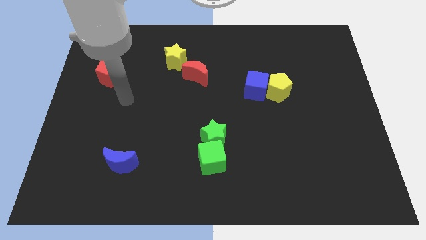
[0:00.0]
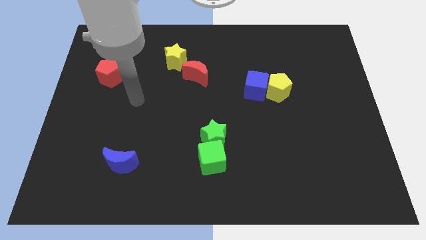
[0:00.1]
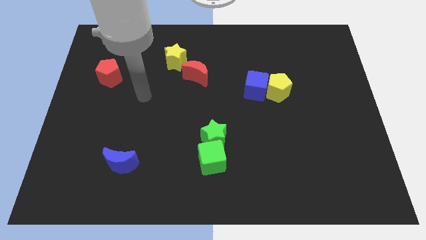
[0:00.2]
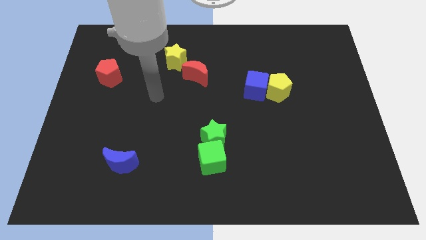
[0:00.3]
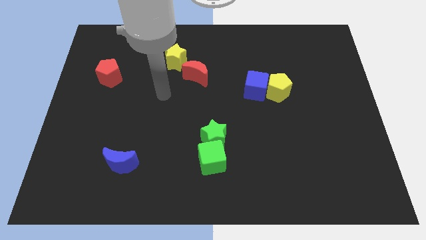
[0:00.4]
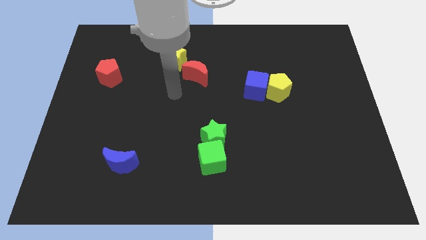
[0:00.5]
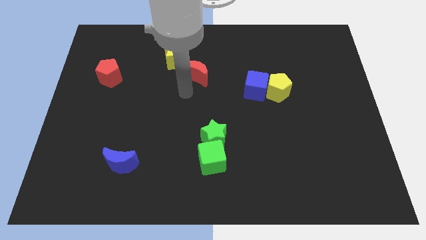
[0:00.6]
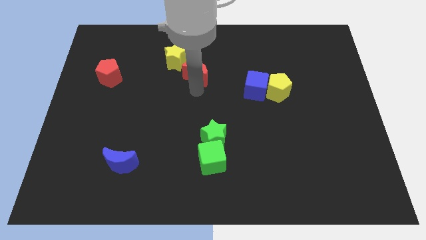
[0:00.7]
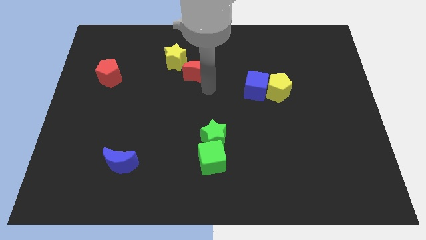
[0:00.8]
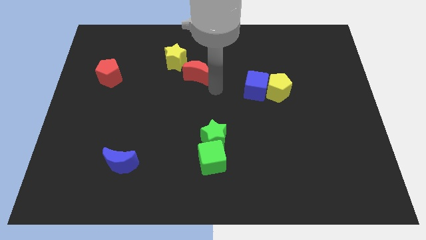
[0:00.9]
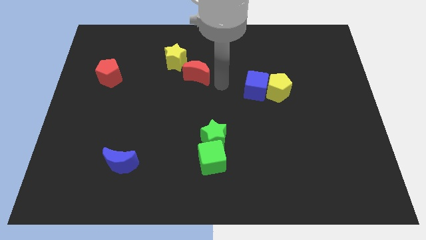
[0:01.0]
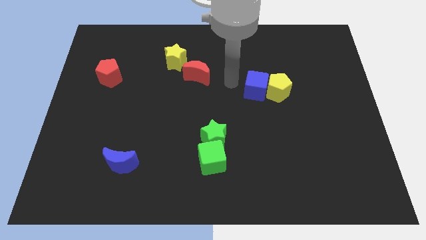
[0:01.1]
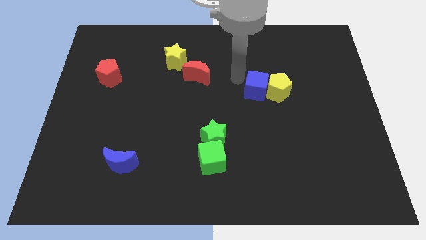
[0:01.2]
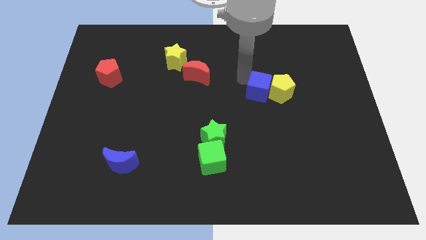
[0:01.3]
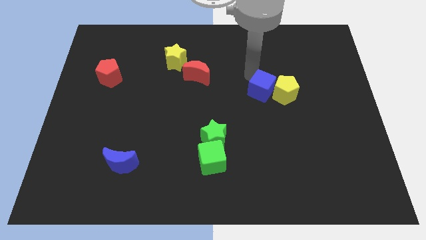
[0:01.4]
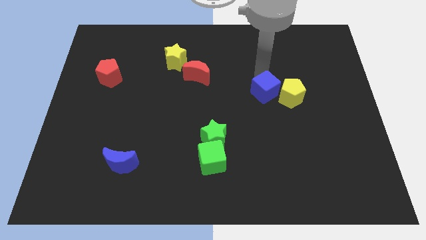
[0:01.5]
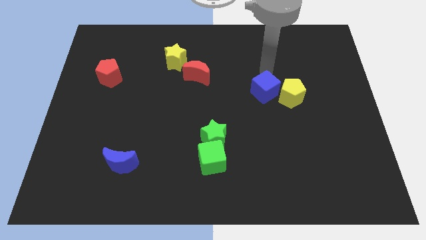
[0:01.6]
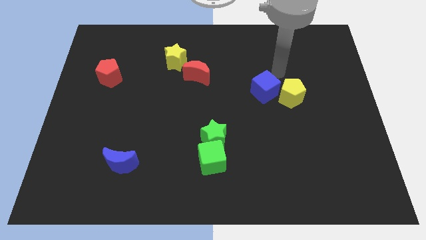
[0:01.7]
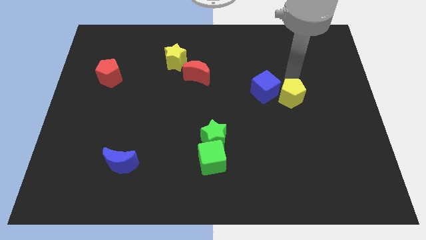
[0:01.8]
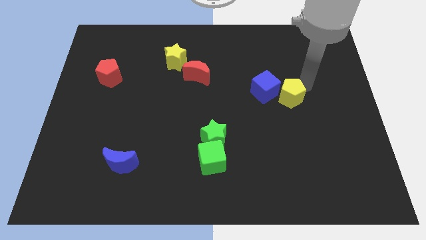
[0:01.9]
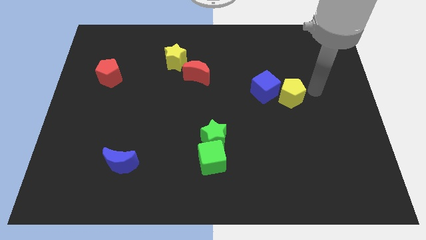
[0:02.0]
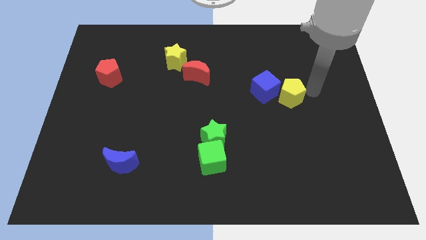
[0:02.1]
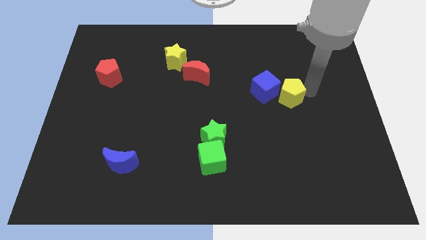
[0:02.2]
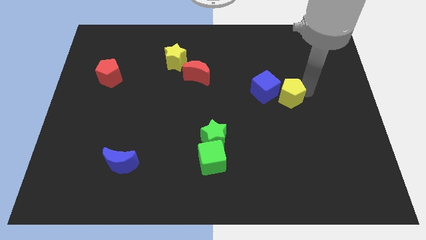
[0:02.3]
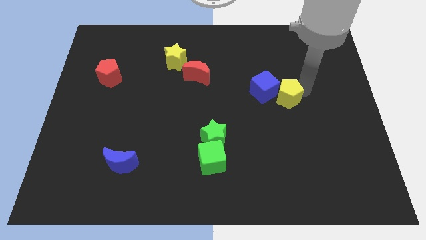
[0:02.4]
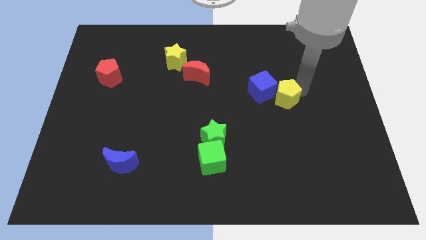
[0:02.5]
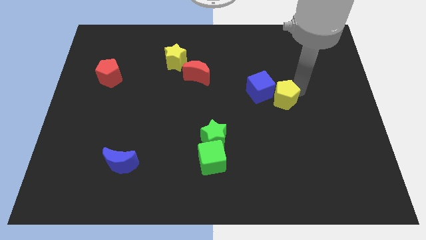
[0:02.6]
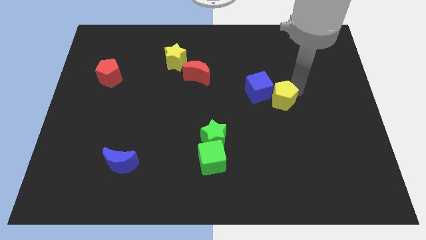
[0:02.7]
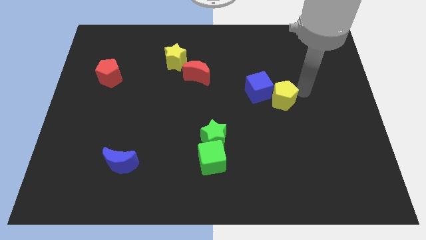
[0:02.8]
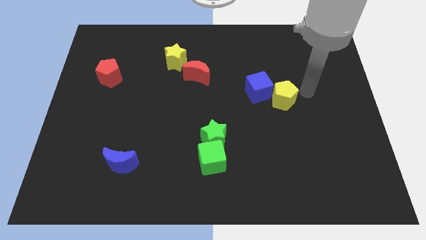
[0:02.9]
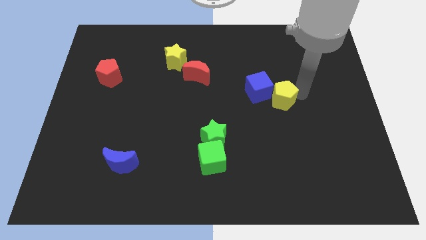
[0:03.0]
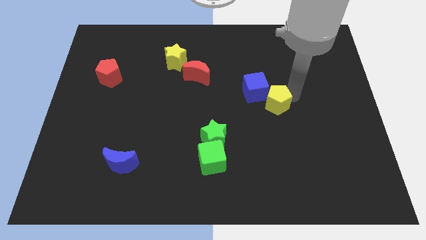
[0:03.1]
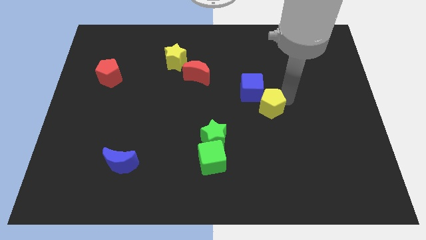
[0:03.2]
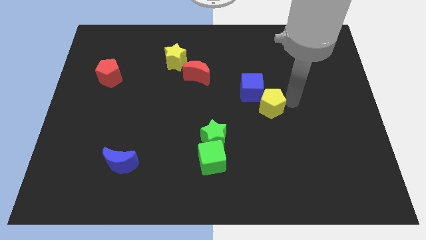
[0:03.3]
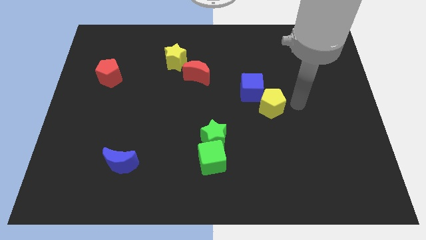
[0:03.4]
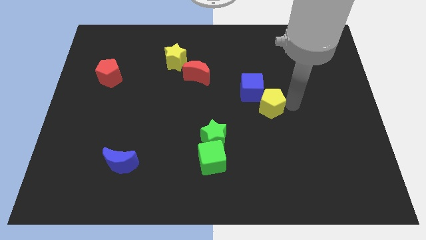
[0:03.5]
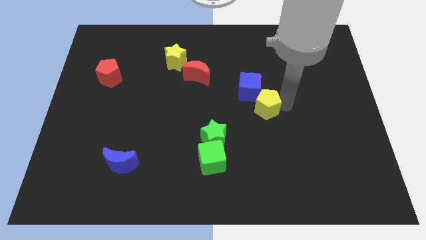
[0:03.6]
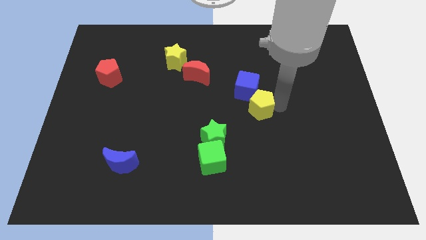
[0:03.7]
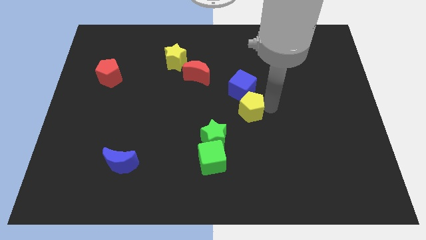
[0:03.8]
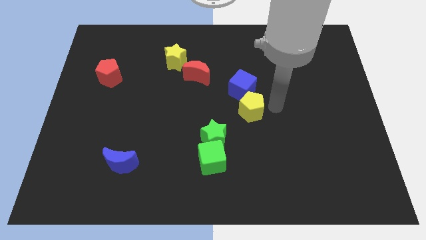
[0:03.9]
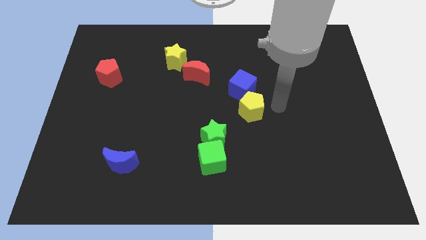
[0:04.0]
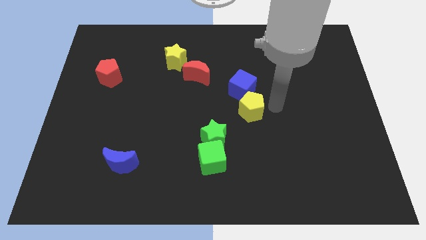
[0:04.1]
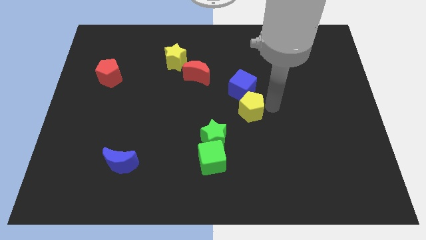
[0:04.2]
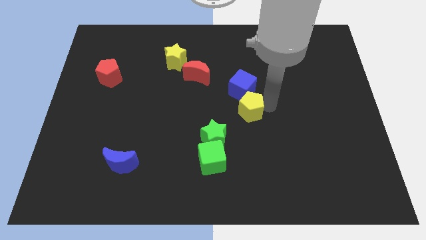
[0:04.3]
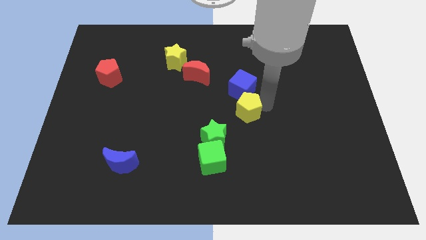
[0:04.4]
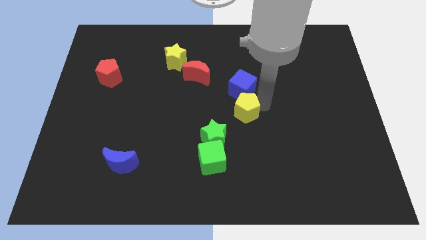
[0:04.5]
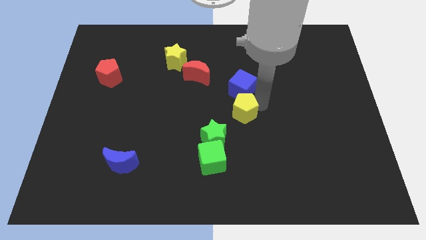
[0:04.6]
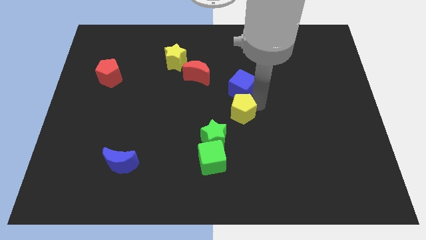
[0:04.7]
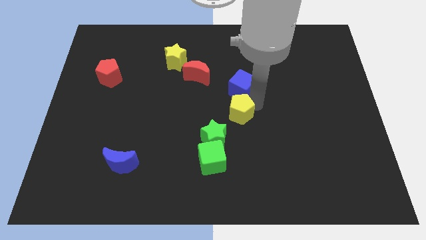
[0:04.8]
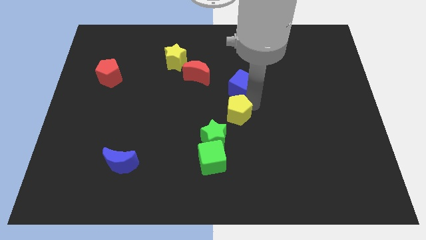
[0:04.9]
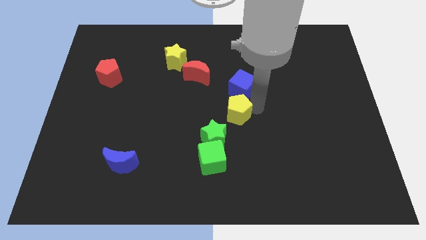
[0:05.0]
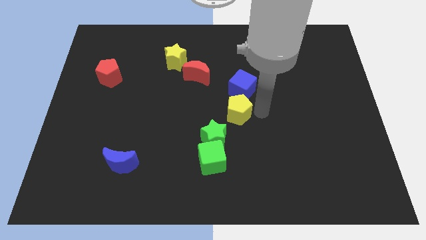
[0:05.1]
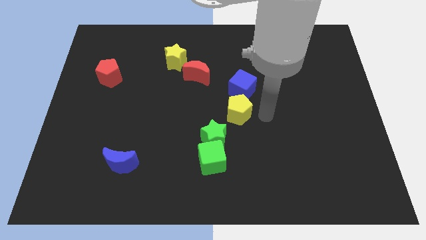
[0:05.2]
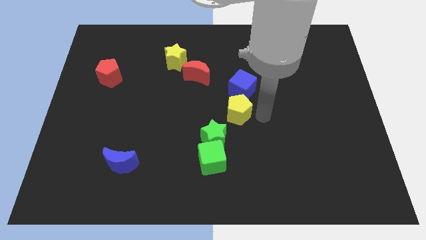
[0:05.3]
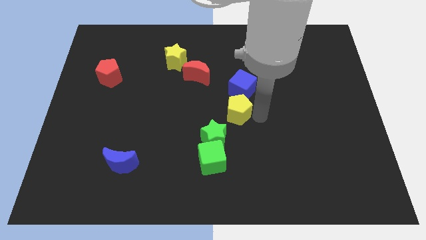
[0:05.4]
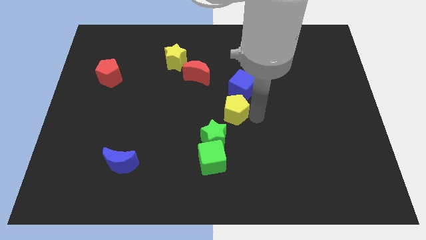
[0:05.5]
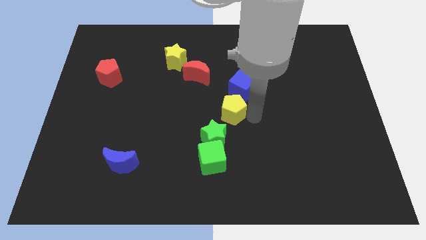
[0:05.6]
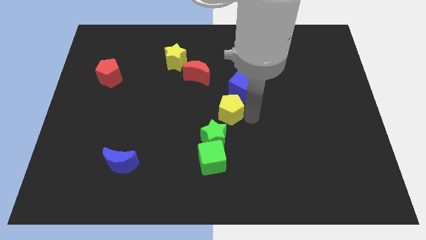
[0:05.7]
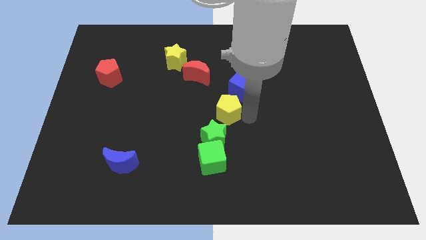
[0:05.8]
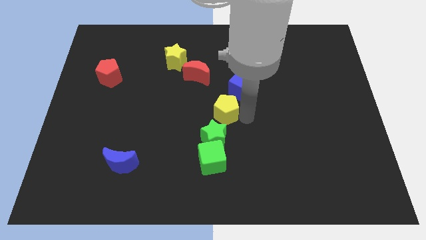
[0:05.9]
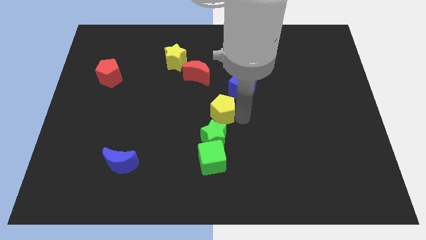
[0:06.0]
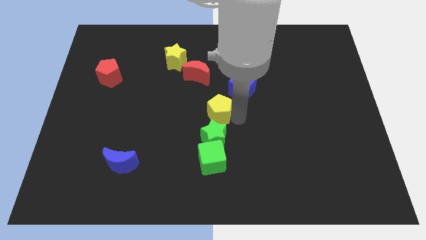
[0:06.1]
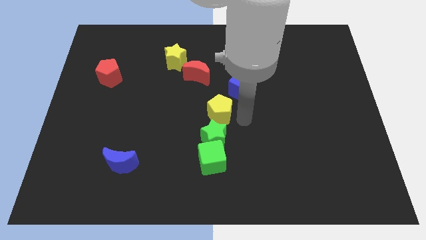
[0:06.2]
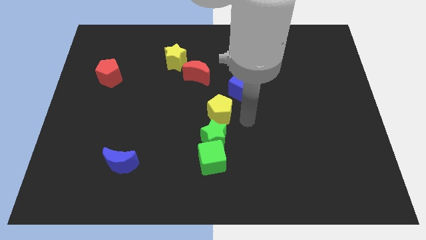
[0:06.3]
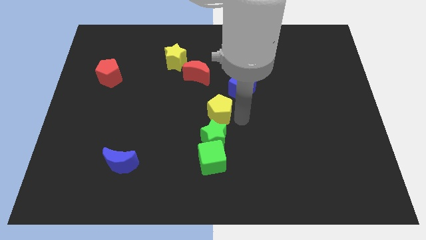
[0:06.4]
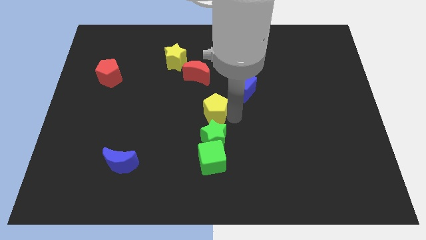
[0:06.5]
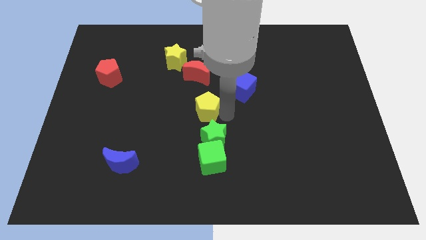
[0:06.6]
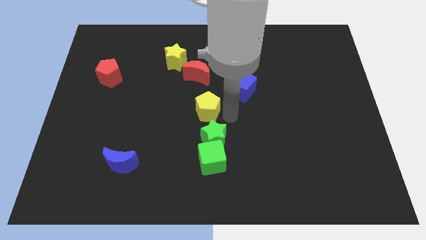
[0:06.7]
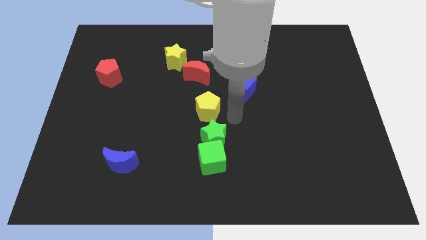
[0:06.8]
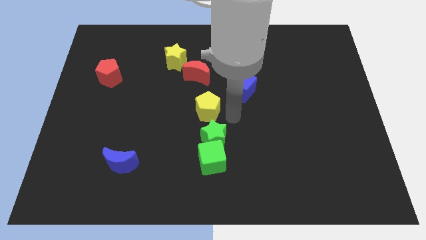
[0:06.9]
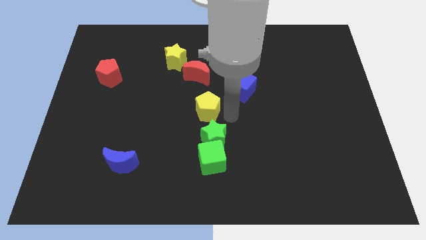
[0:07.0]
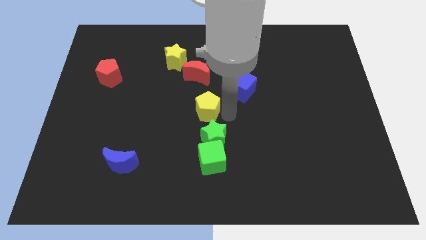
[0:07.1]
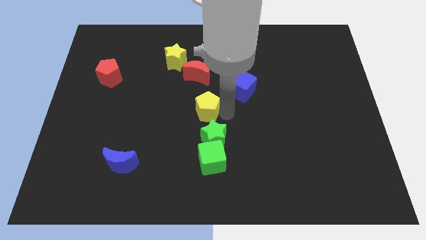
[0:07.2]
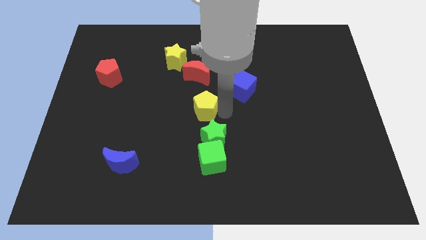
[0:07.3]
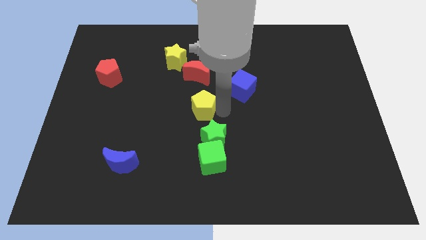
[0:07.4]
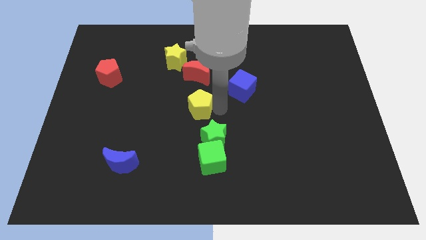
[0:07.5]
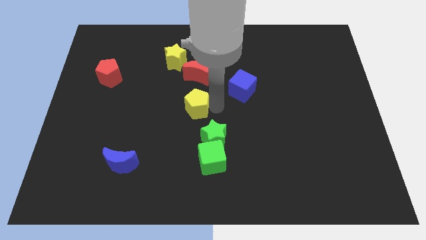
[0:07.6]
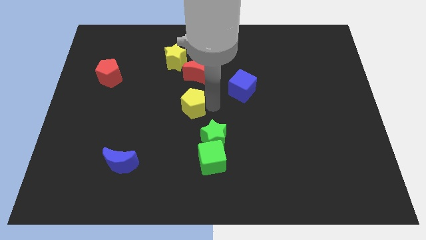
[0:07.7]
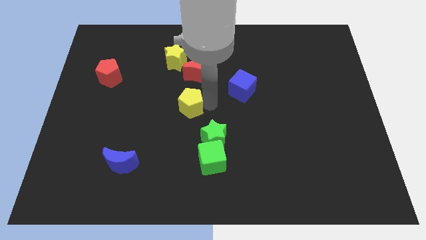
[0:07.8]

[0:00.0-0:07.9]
slide the yellow pentagon left
